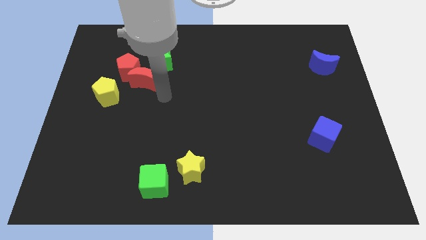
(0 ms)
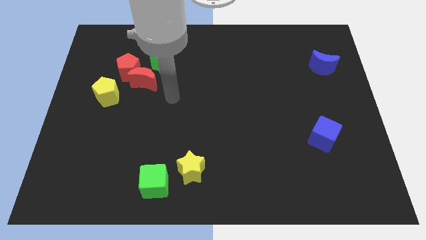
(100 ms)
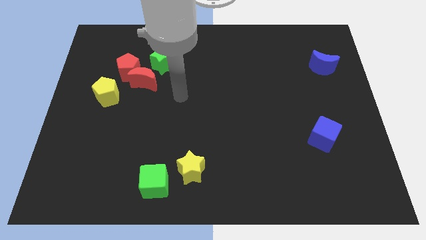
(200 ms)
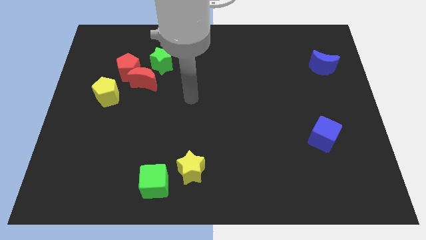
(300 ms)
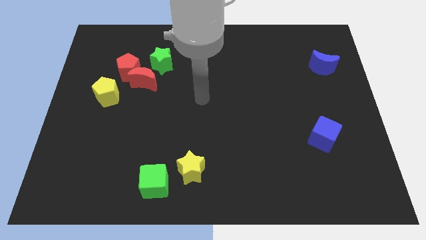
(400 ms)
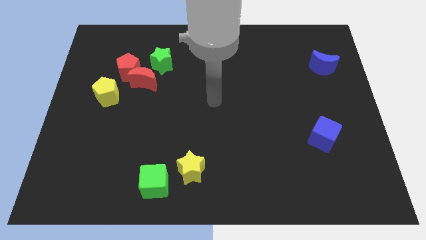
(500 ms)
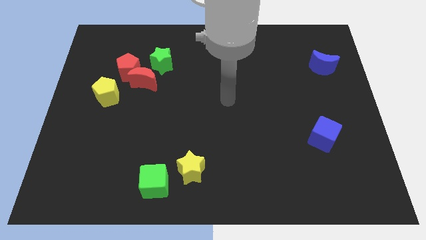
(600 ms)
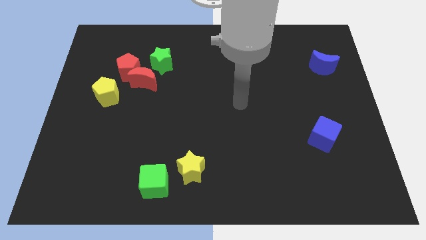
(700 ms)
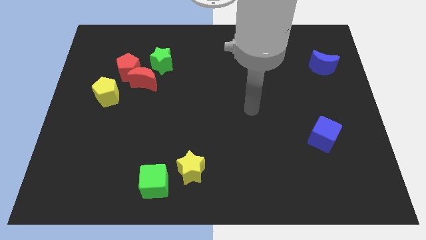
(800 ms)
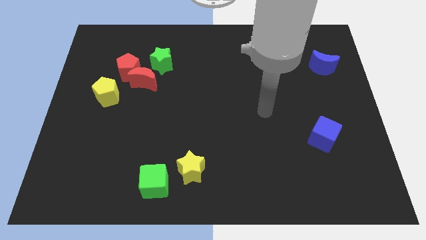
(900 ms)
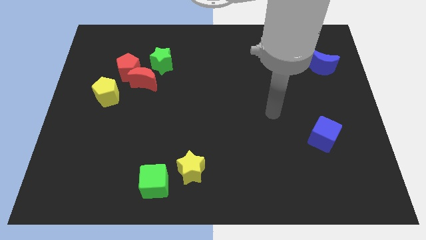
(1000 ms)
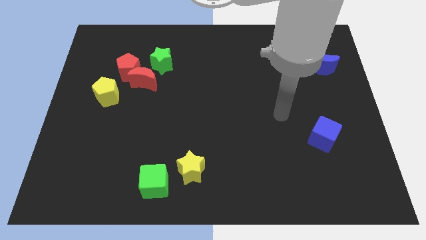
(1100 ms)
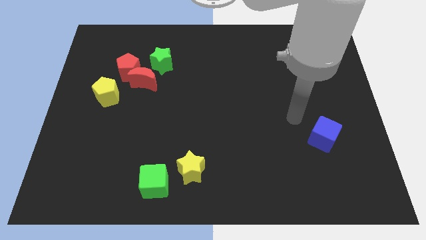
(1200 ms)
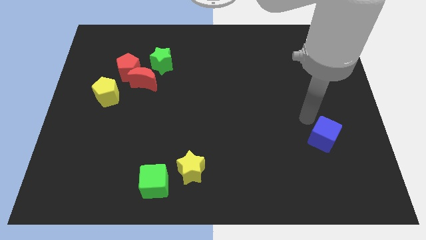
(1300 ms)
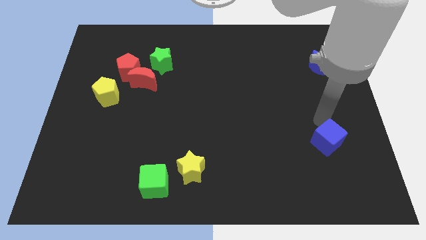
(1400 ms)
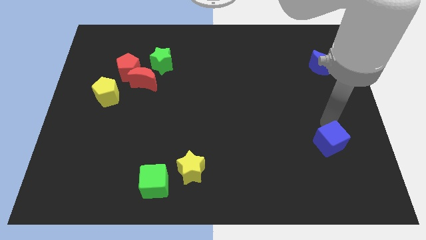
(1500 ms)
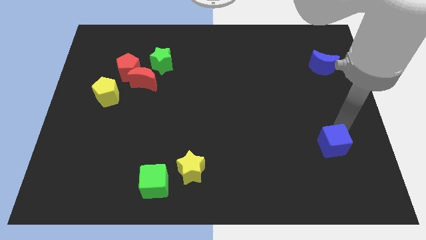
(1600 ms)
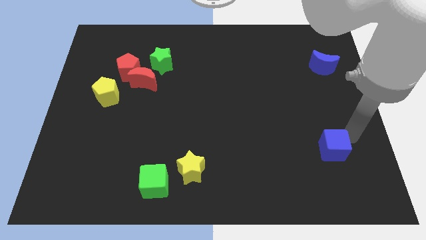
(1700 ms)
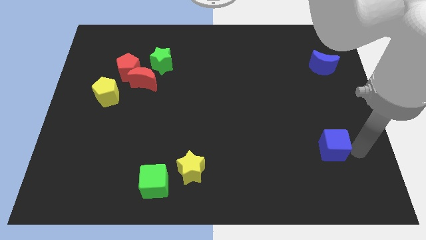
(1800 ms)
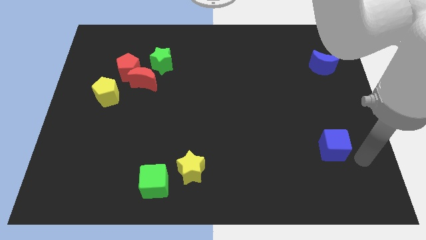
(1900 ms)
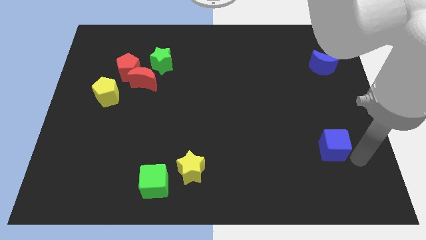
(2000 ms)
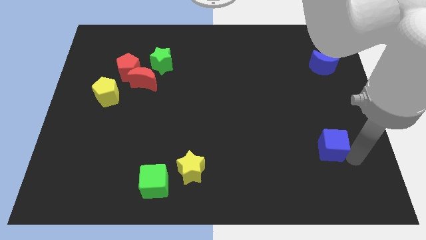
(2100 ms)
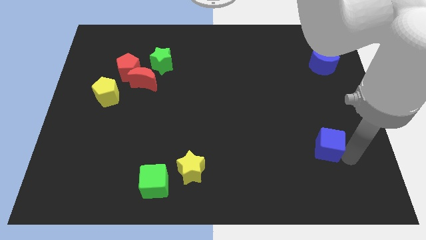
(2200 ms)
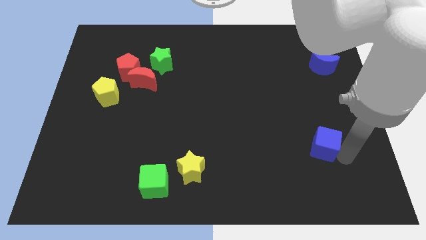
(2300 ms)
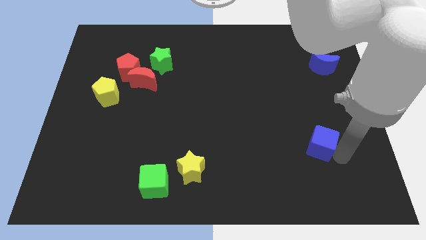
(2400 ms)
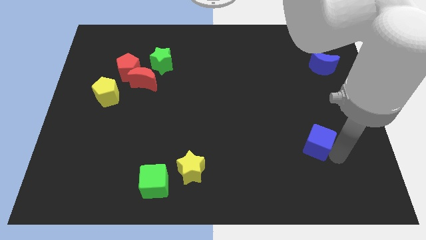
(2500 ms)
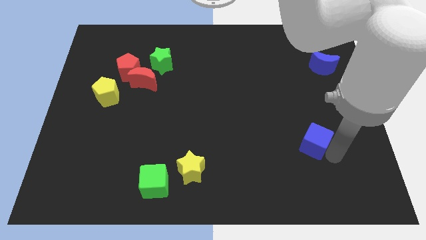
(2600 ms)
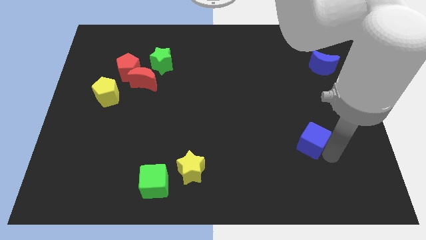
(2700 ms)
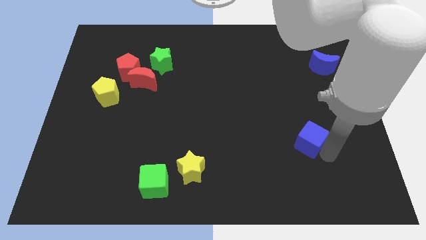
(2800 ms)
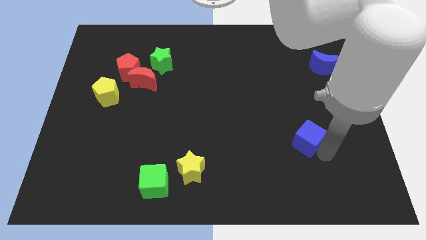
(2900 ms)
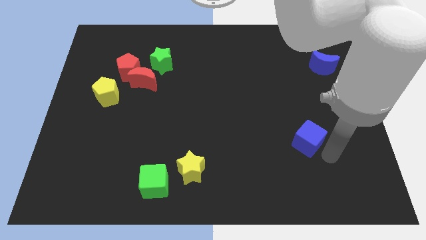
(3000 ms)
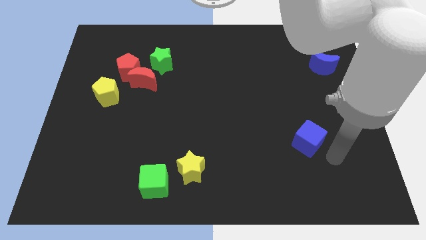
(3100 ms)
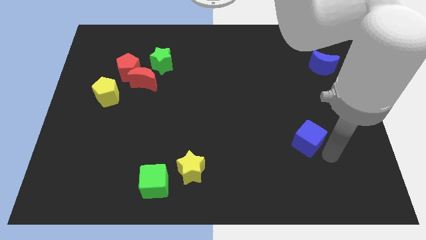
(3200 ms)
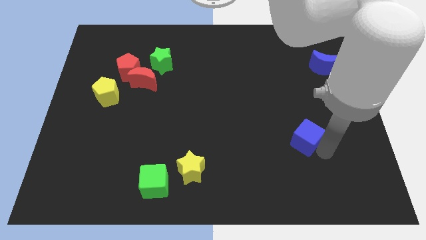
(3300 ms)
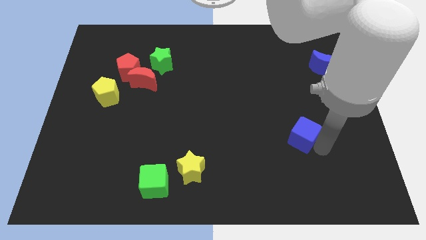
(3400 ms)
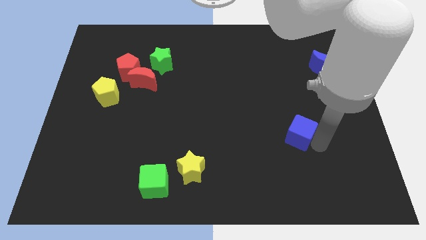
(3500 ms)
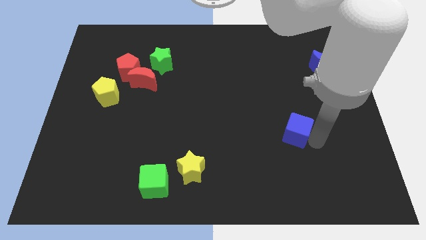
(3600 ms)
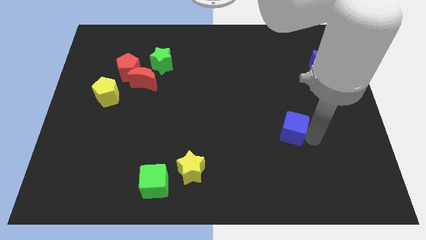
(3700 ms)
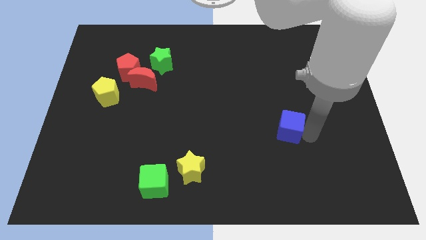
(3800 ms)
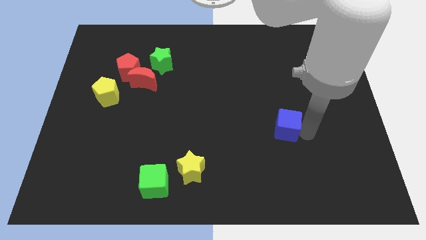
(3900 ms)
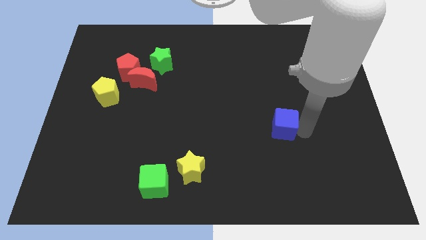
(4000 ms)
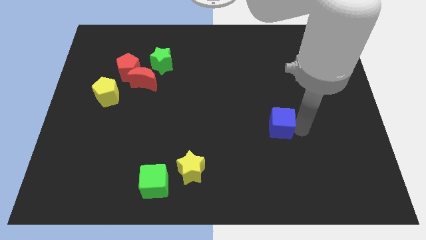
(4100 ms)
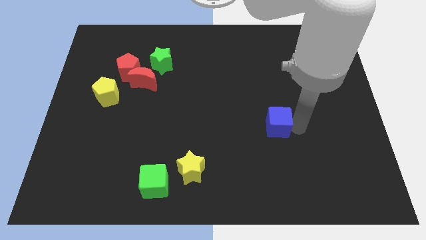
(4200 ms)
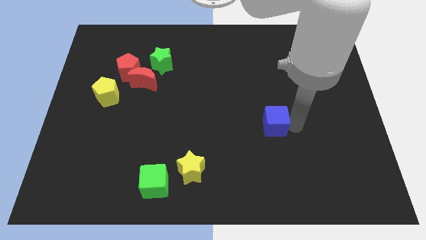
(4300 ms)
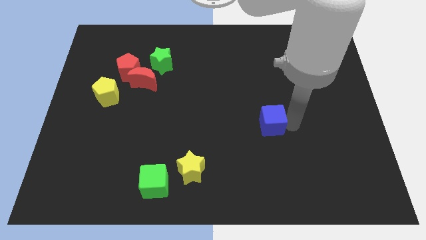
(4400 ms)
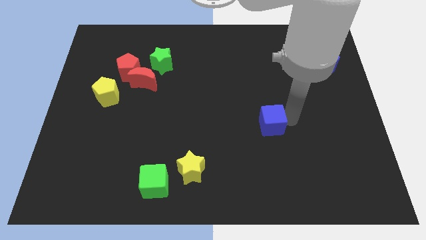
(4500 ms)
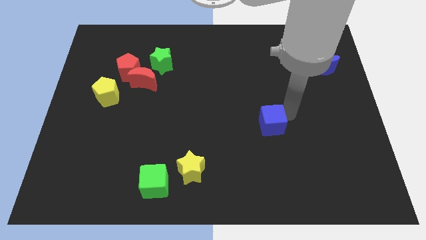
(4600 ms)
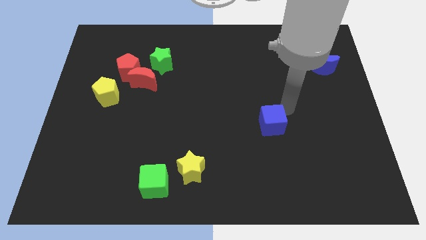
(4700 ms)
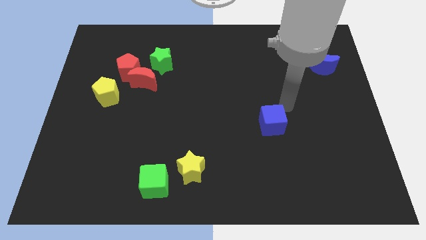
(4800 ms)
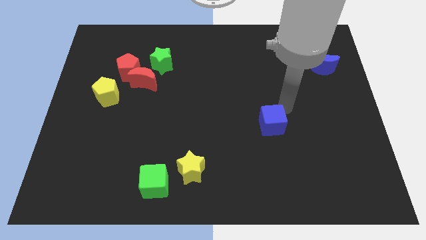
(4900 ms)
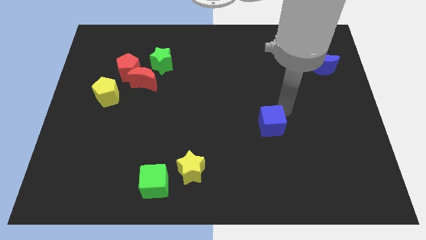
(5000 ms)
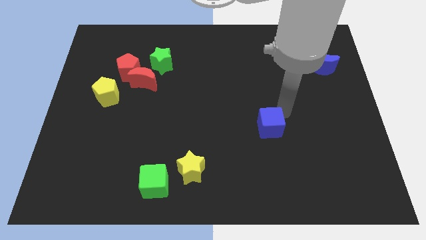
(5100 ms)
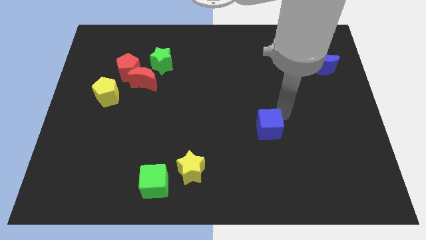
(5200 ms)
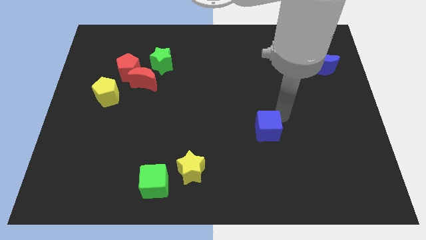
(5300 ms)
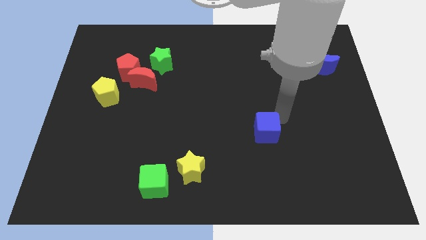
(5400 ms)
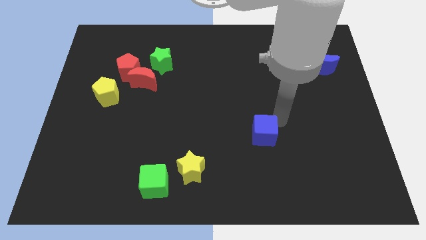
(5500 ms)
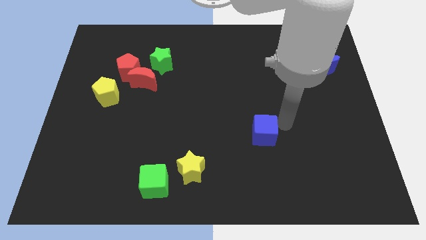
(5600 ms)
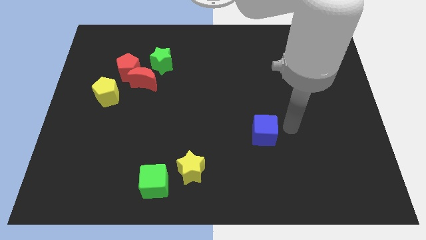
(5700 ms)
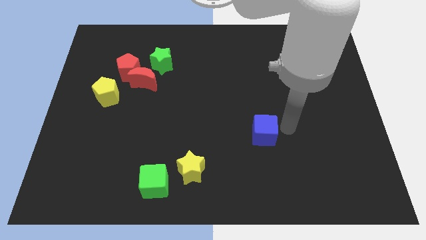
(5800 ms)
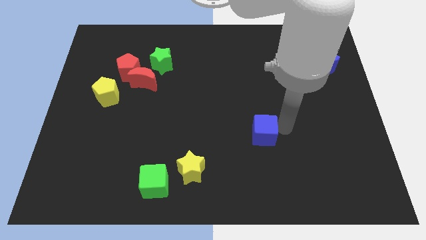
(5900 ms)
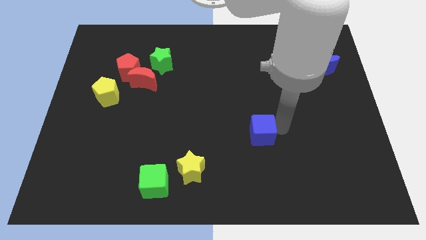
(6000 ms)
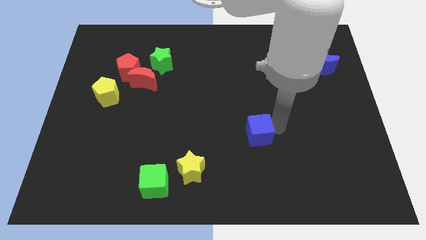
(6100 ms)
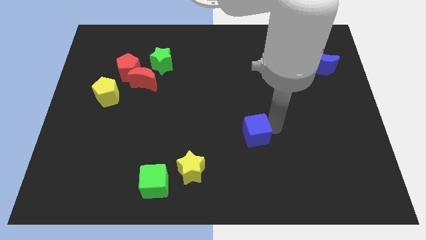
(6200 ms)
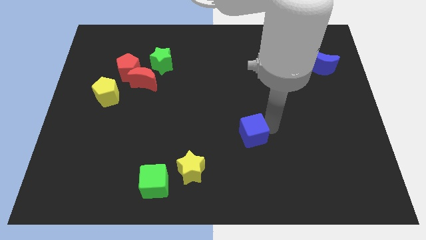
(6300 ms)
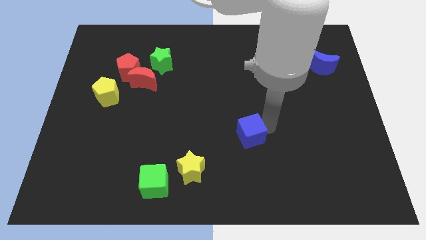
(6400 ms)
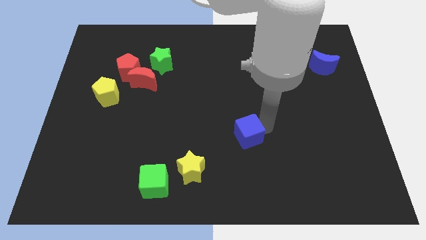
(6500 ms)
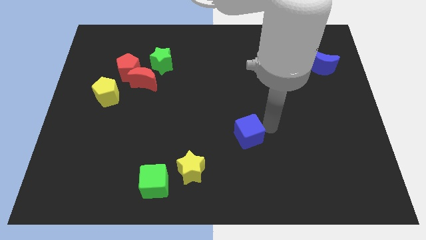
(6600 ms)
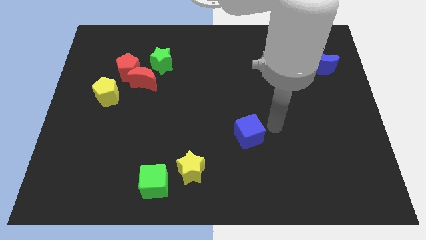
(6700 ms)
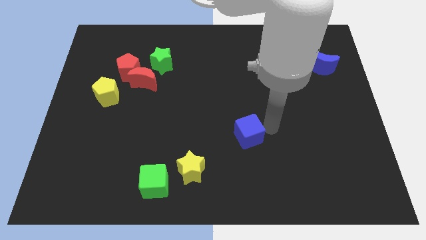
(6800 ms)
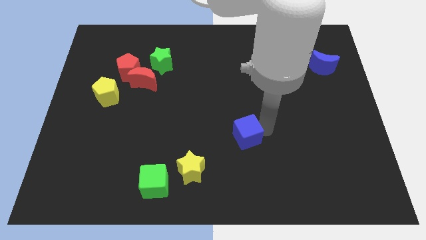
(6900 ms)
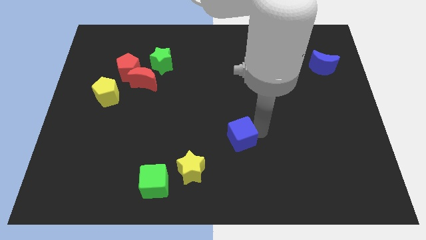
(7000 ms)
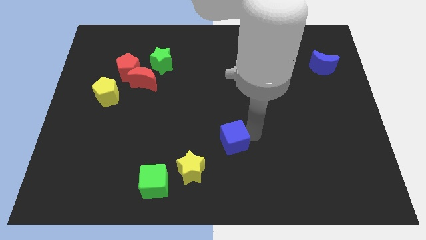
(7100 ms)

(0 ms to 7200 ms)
move the blue cube left

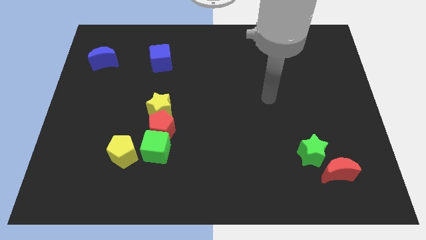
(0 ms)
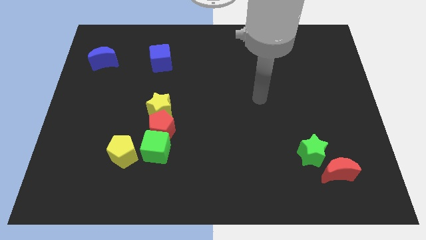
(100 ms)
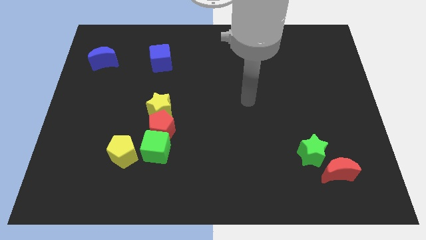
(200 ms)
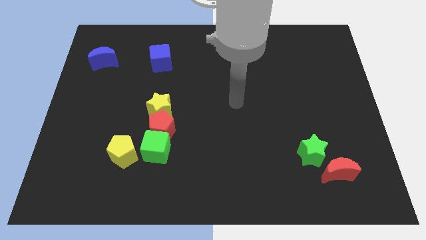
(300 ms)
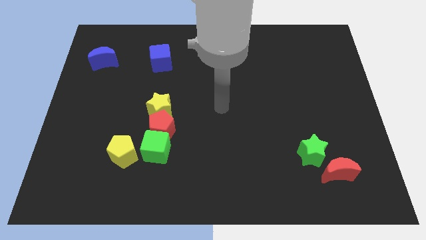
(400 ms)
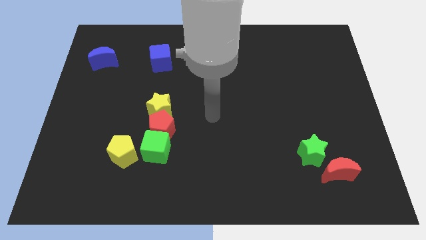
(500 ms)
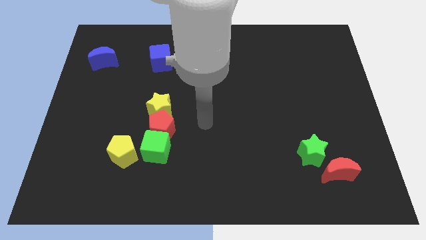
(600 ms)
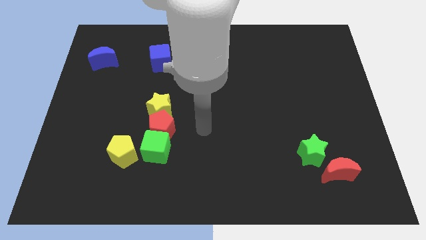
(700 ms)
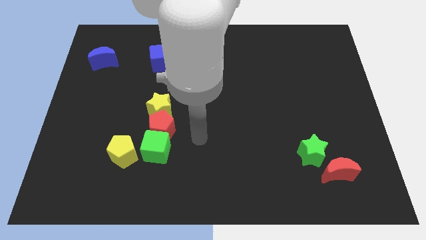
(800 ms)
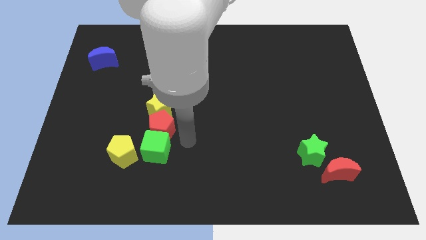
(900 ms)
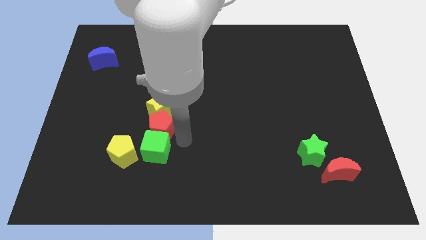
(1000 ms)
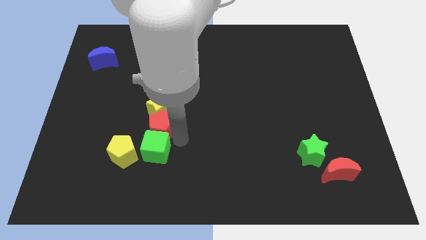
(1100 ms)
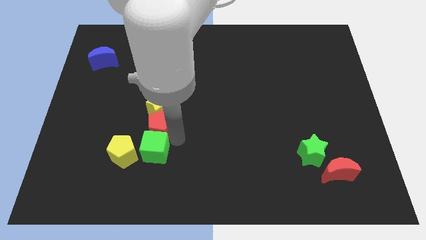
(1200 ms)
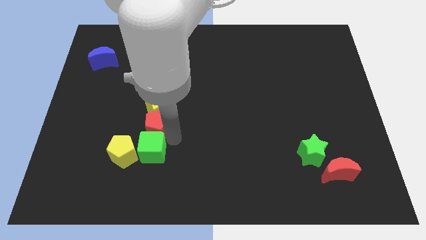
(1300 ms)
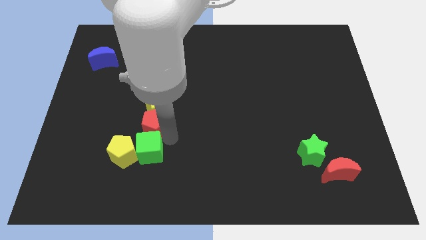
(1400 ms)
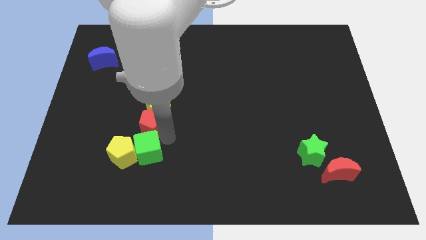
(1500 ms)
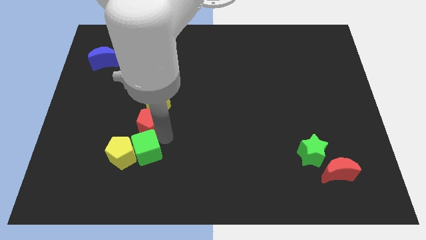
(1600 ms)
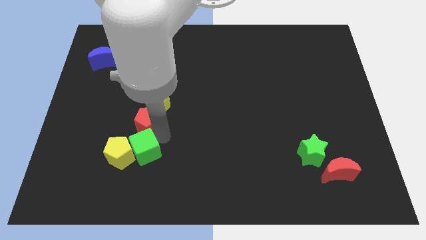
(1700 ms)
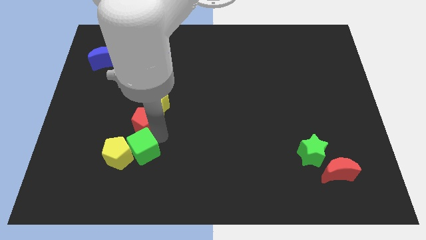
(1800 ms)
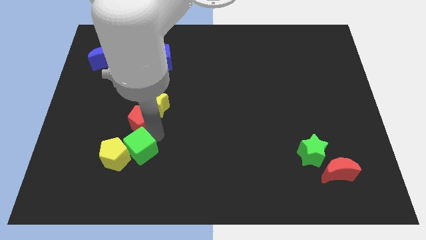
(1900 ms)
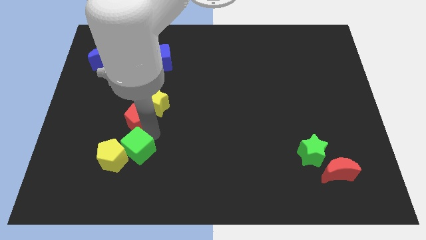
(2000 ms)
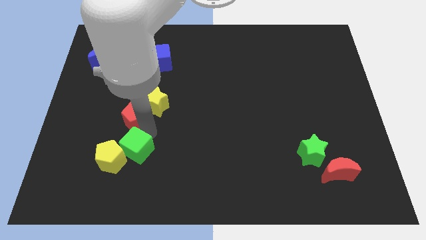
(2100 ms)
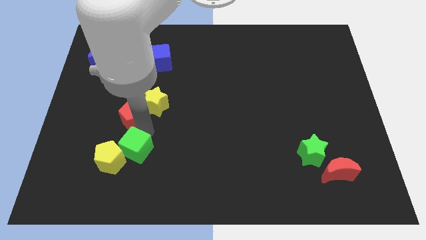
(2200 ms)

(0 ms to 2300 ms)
slightly slide the red pentagon upwards and left
